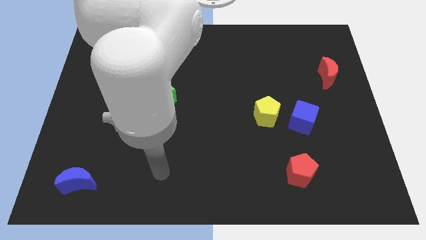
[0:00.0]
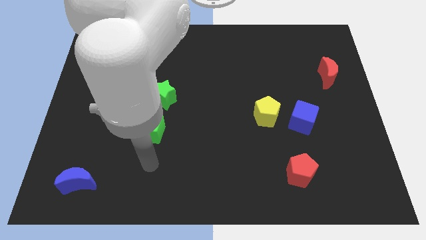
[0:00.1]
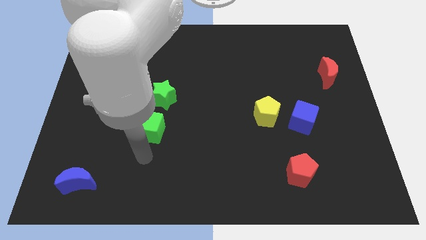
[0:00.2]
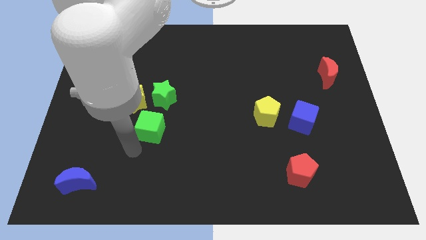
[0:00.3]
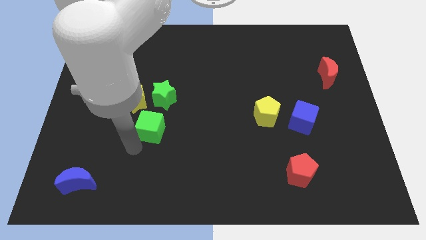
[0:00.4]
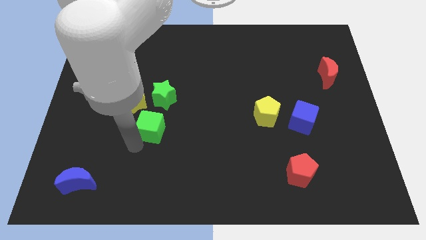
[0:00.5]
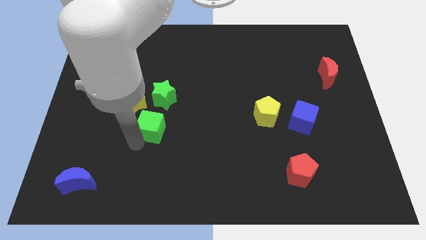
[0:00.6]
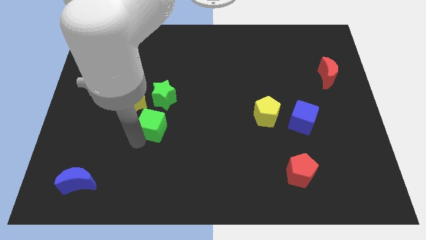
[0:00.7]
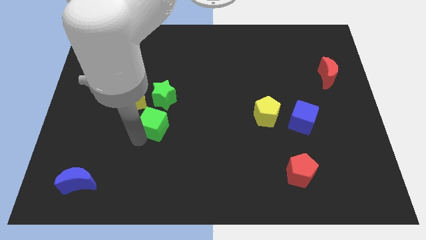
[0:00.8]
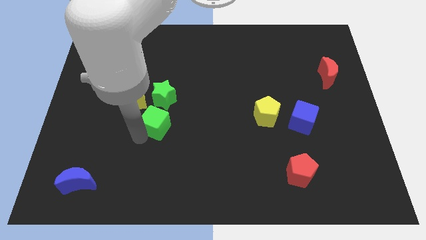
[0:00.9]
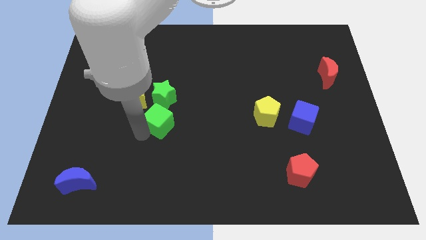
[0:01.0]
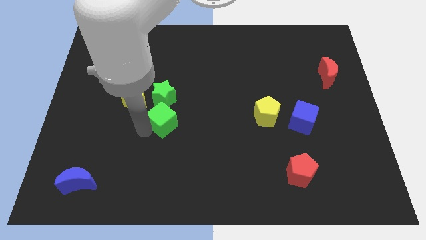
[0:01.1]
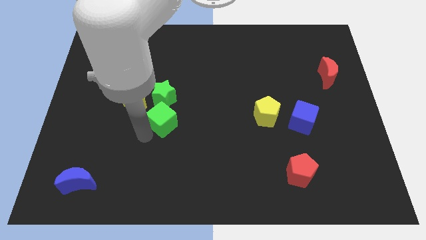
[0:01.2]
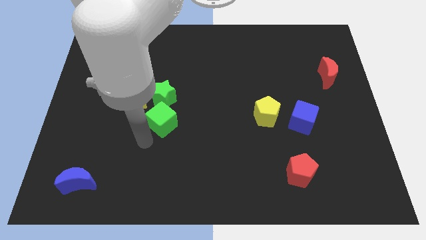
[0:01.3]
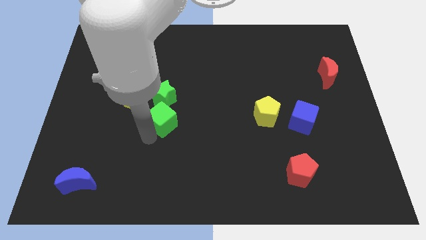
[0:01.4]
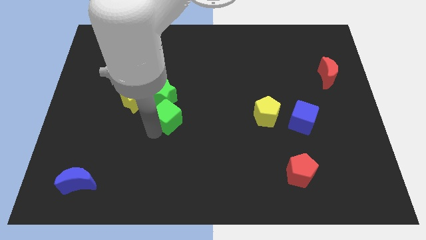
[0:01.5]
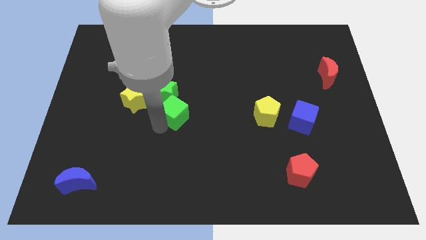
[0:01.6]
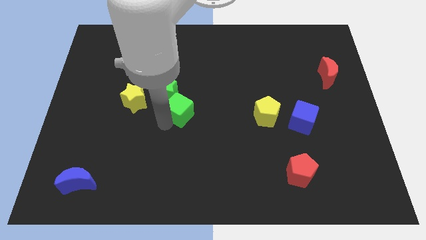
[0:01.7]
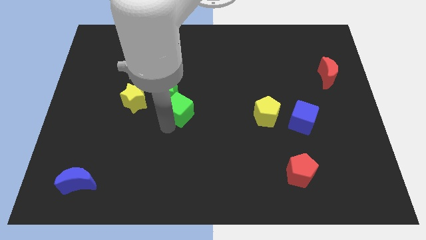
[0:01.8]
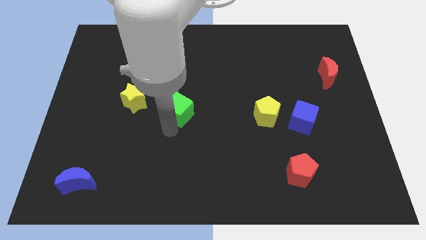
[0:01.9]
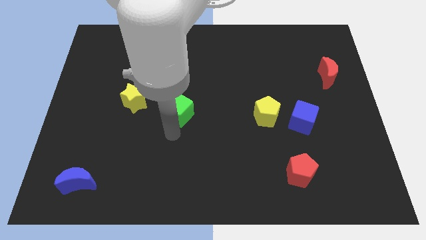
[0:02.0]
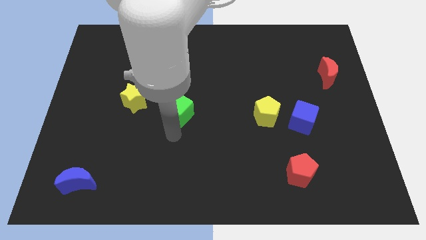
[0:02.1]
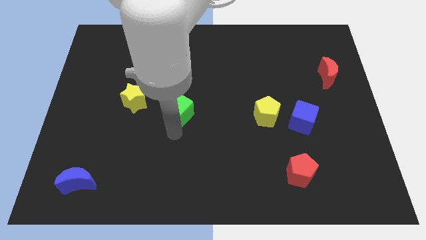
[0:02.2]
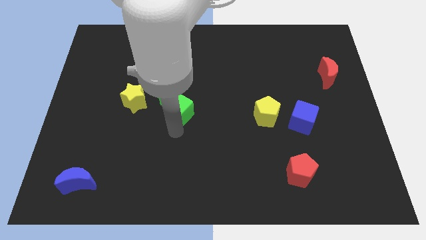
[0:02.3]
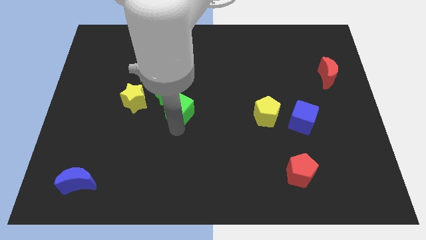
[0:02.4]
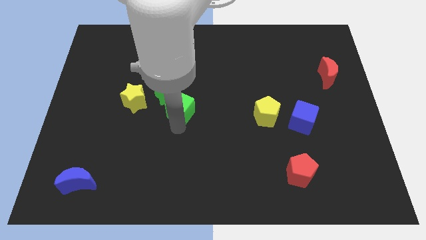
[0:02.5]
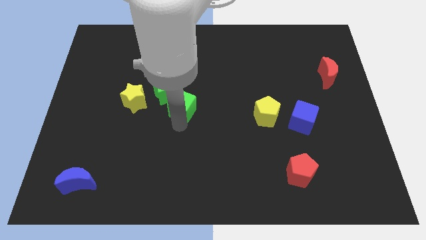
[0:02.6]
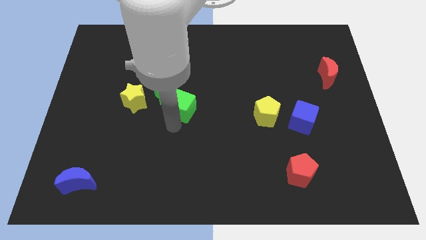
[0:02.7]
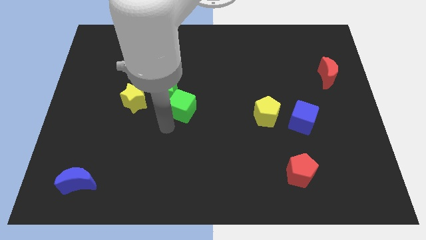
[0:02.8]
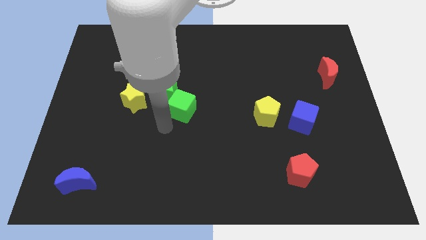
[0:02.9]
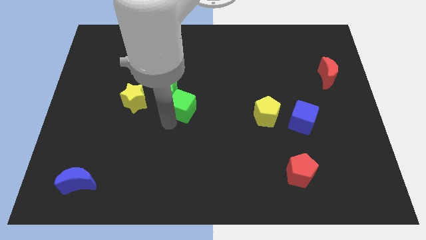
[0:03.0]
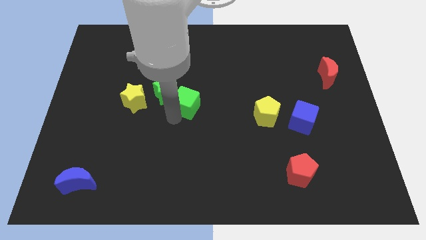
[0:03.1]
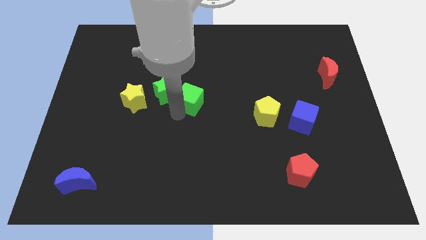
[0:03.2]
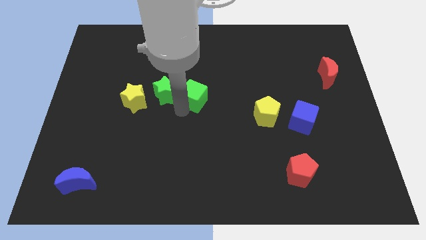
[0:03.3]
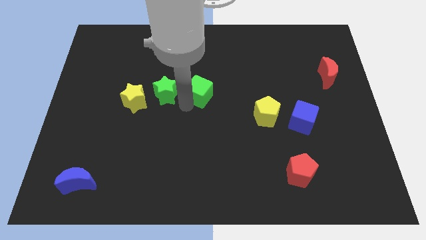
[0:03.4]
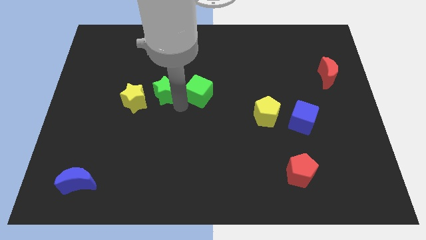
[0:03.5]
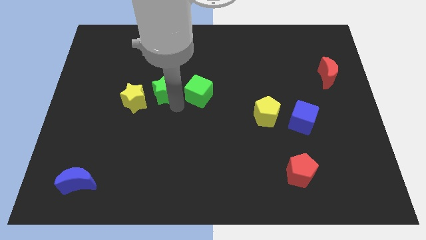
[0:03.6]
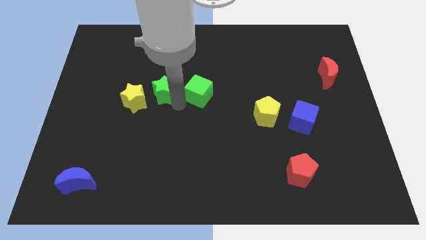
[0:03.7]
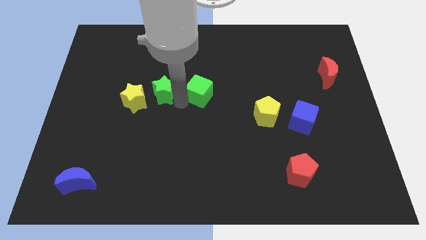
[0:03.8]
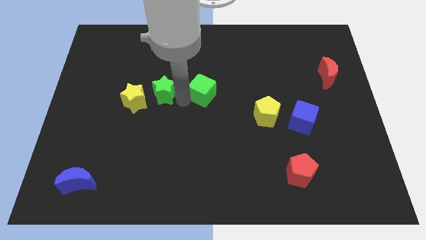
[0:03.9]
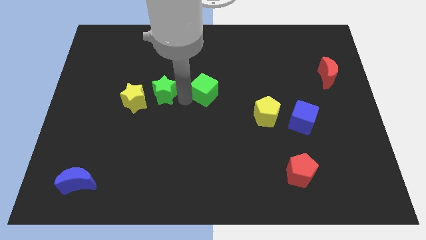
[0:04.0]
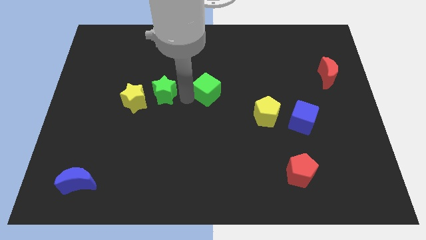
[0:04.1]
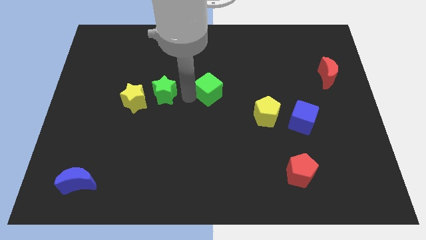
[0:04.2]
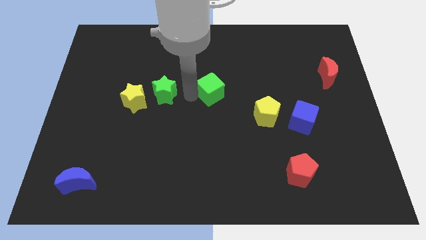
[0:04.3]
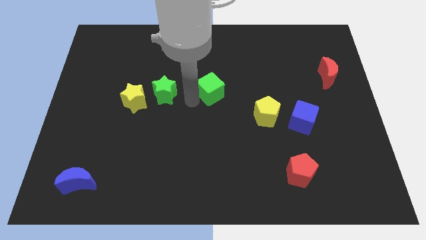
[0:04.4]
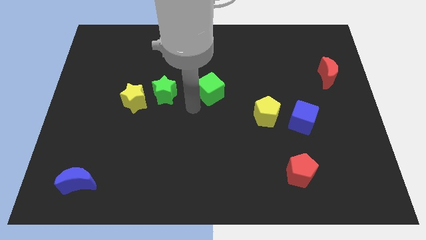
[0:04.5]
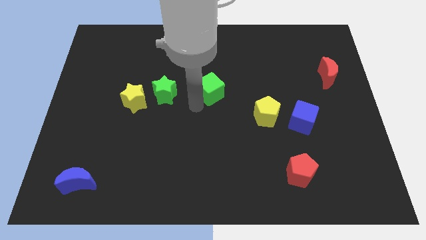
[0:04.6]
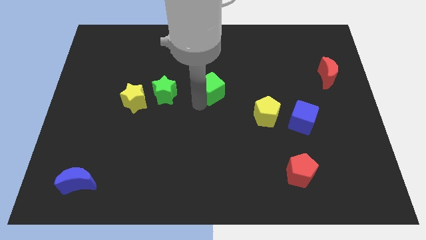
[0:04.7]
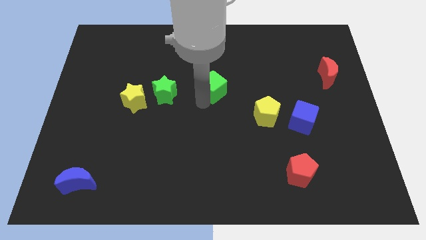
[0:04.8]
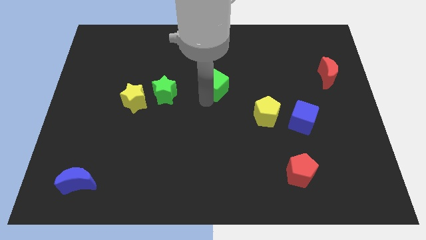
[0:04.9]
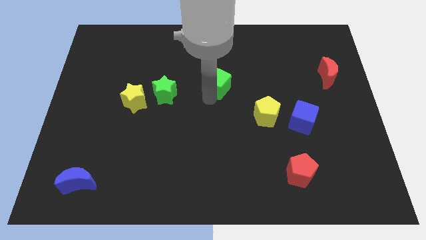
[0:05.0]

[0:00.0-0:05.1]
slide the green cube up and then right

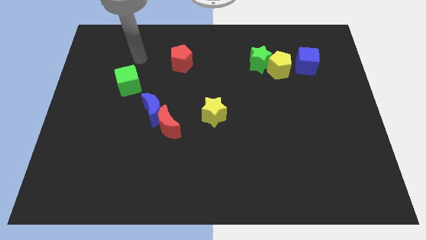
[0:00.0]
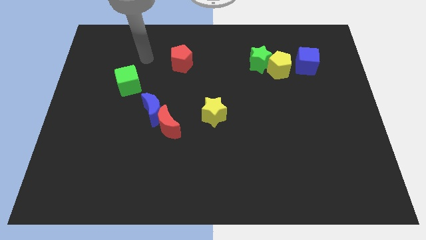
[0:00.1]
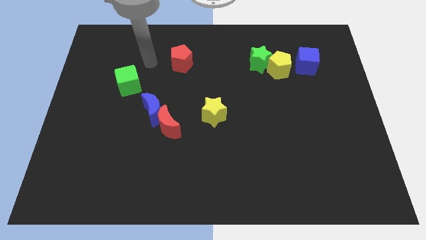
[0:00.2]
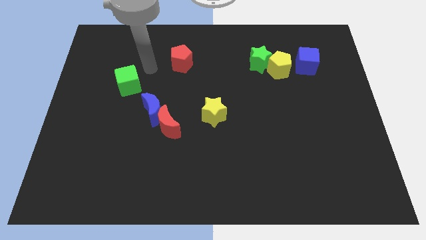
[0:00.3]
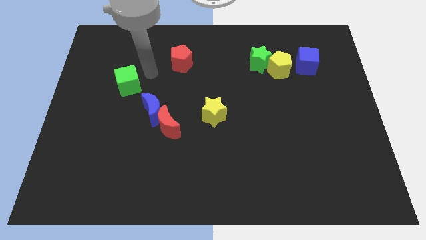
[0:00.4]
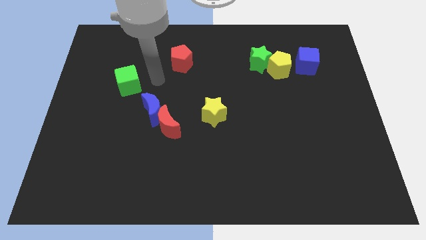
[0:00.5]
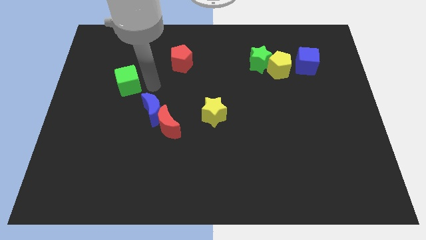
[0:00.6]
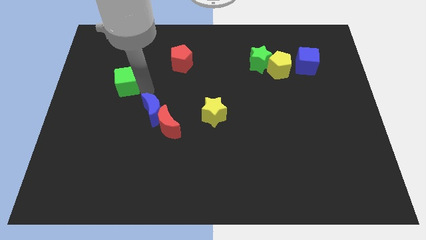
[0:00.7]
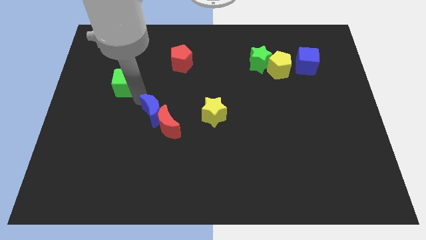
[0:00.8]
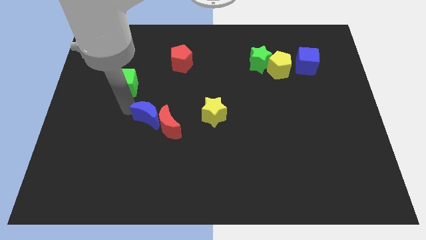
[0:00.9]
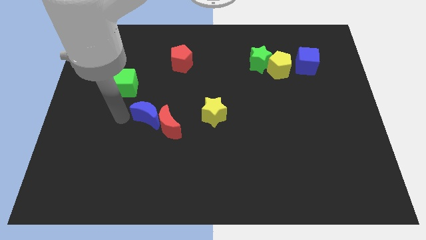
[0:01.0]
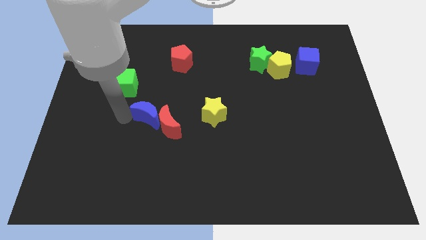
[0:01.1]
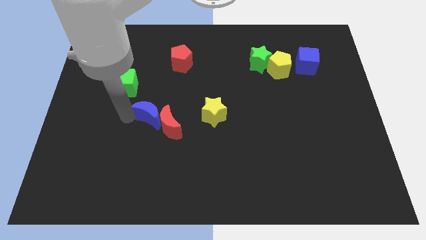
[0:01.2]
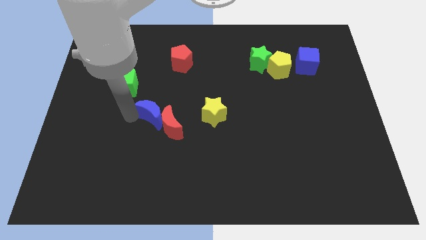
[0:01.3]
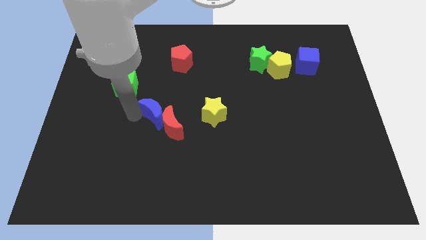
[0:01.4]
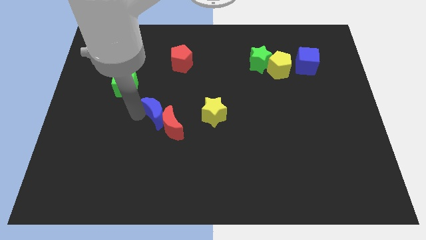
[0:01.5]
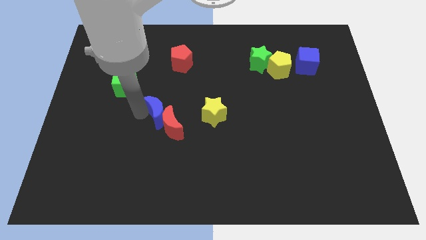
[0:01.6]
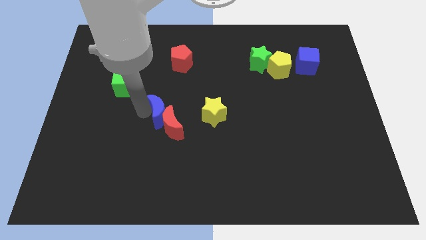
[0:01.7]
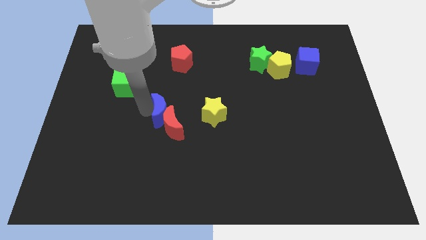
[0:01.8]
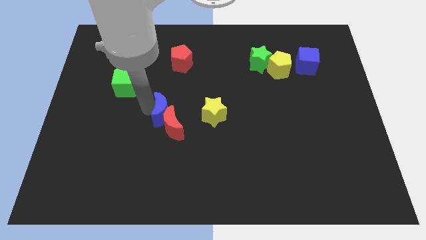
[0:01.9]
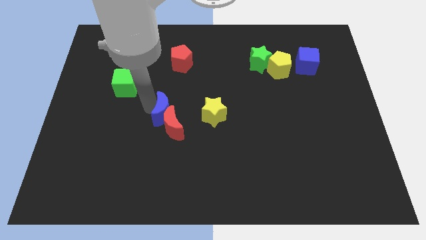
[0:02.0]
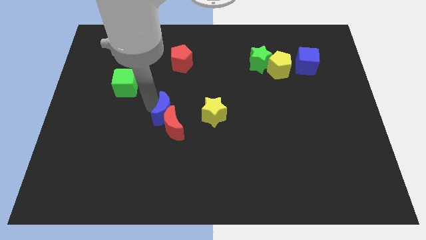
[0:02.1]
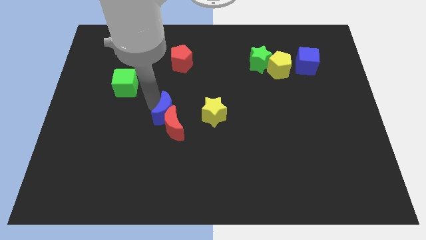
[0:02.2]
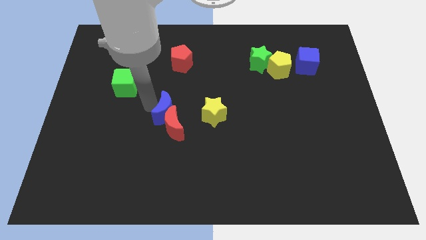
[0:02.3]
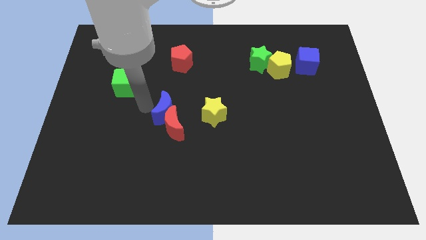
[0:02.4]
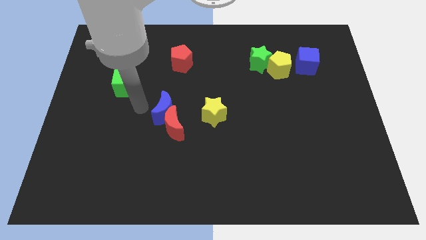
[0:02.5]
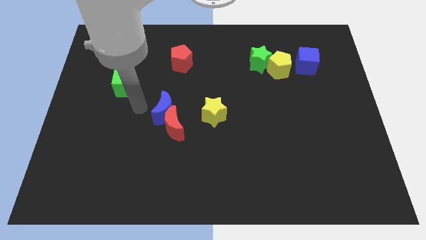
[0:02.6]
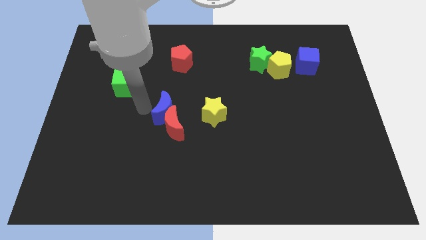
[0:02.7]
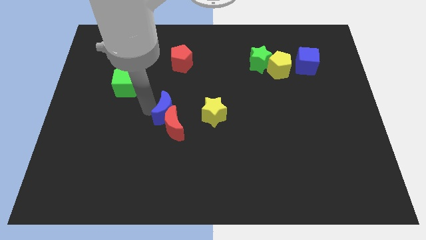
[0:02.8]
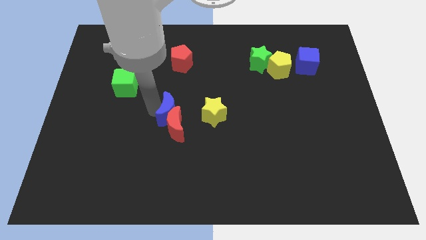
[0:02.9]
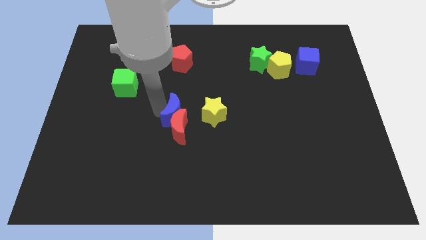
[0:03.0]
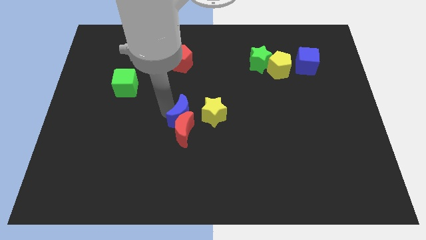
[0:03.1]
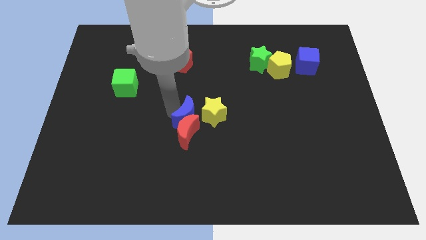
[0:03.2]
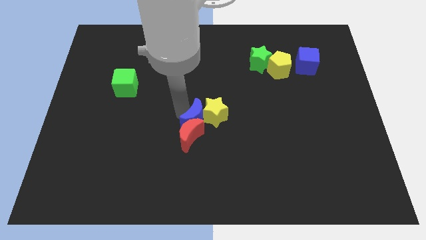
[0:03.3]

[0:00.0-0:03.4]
slightly push the blue moon diagonally downwards and to the right
